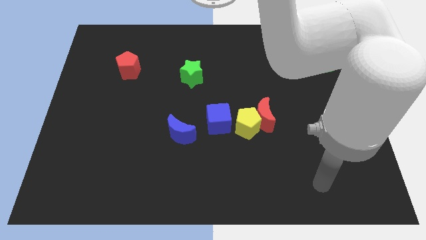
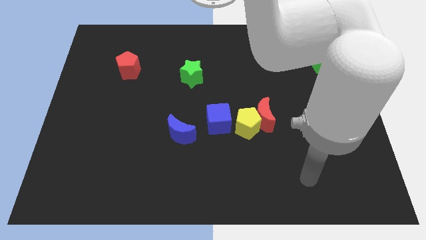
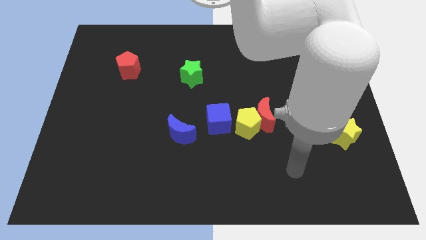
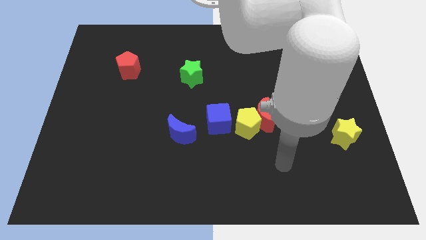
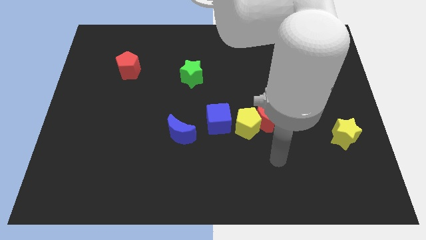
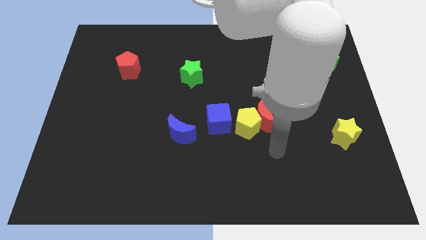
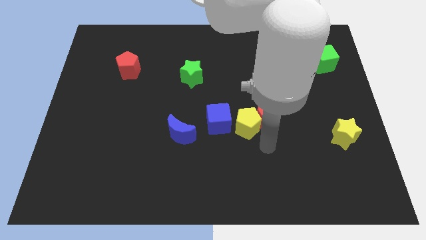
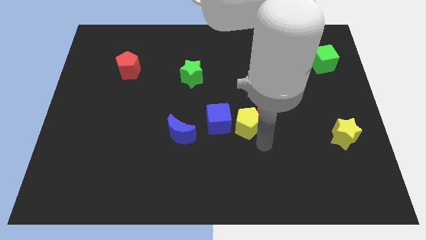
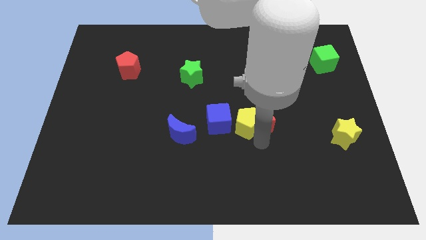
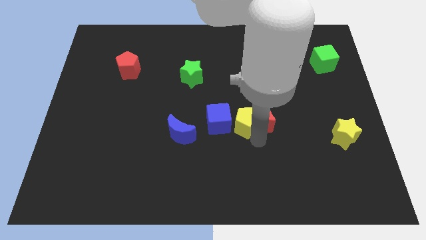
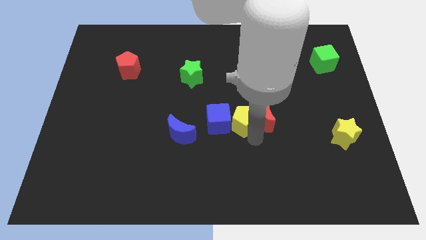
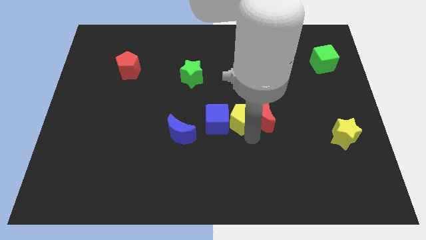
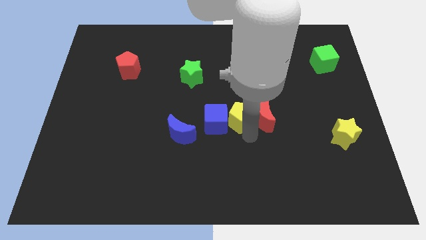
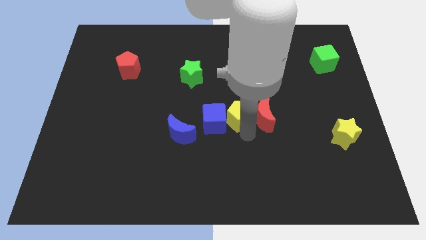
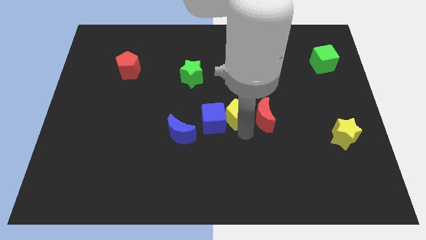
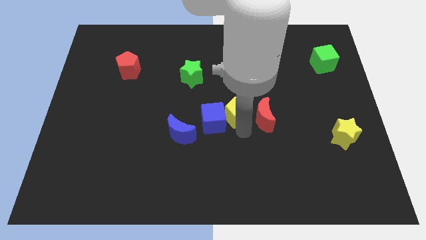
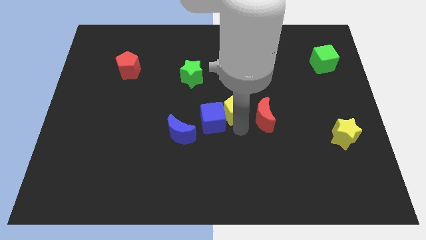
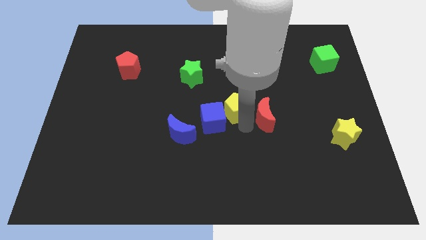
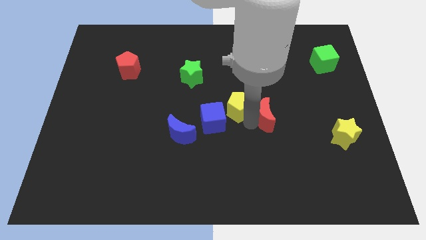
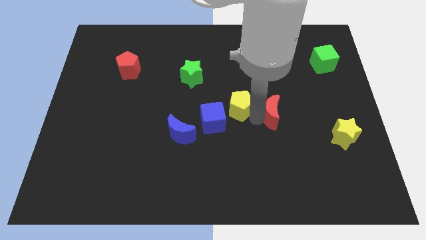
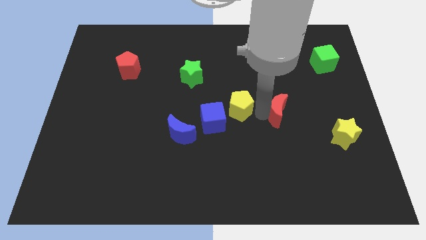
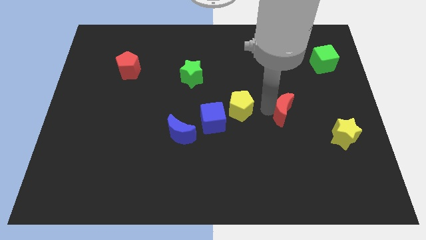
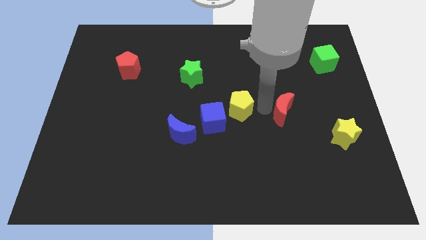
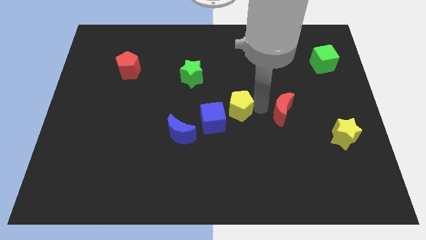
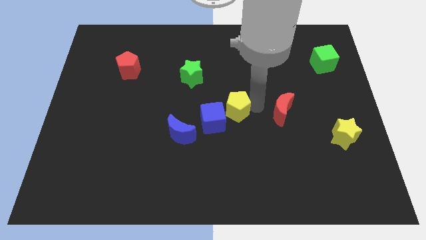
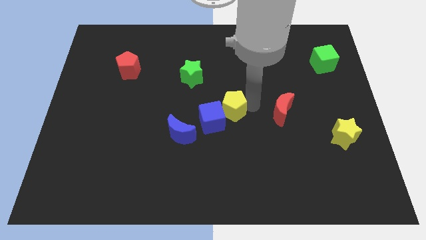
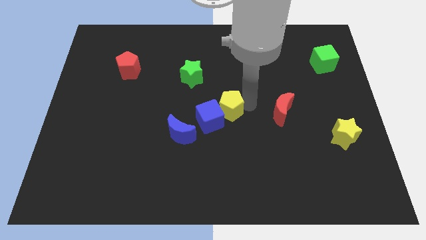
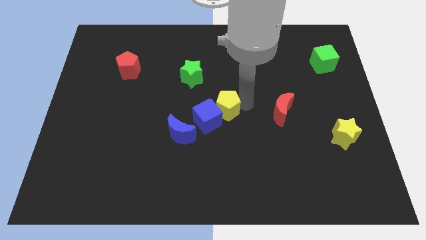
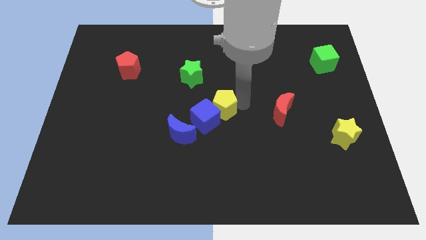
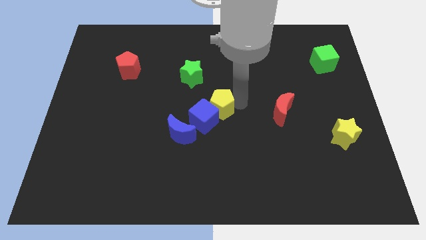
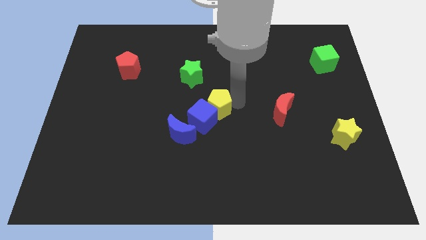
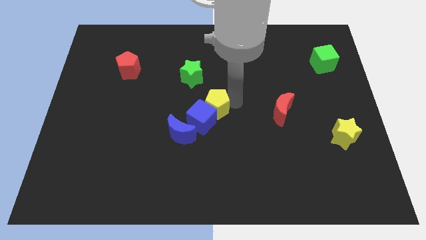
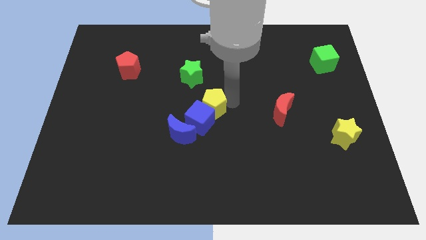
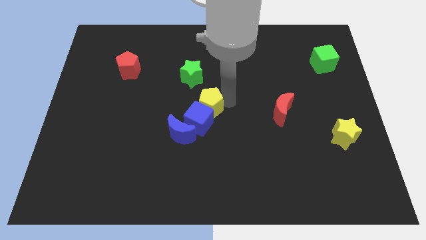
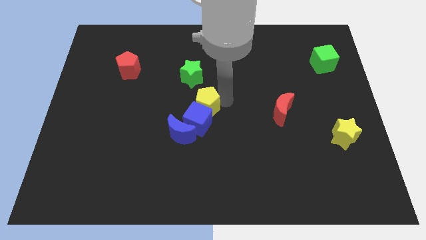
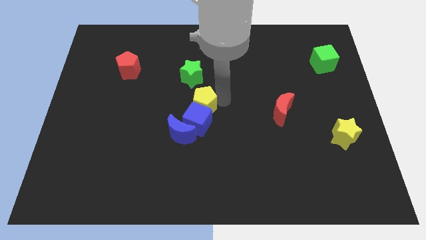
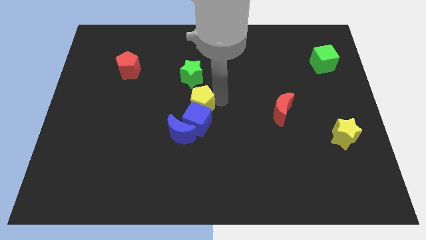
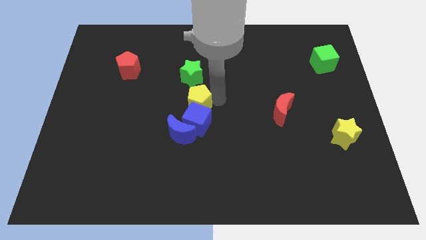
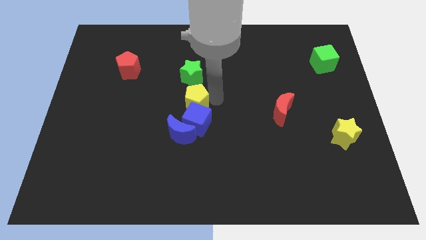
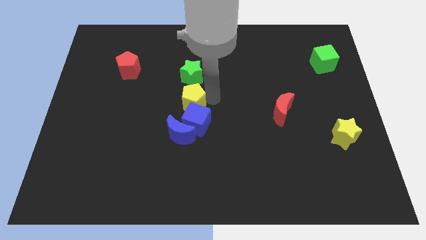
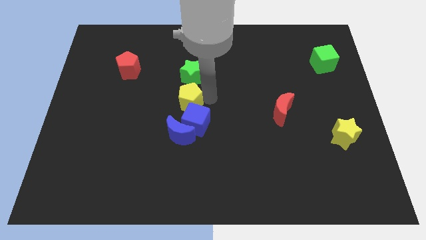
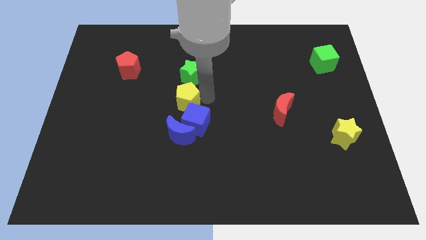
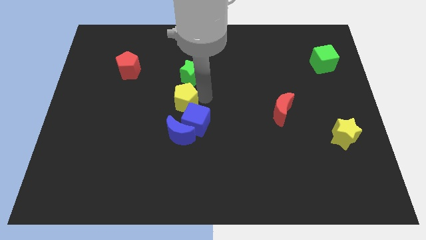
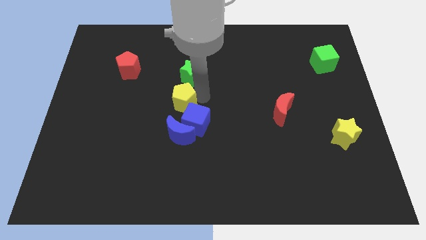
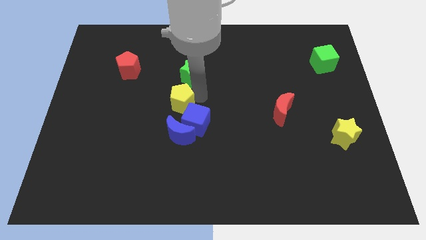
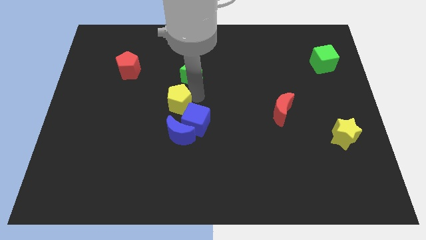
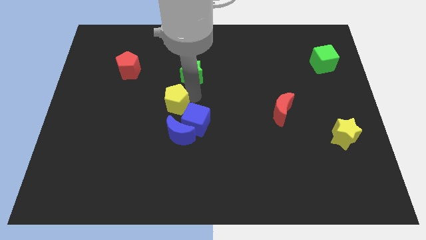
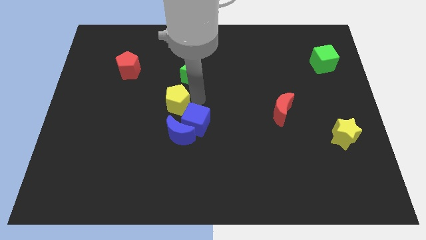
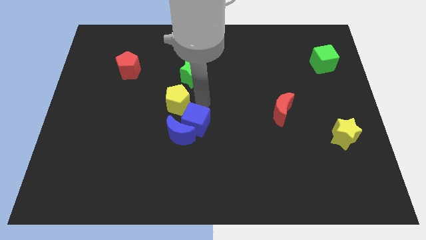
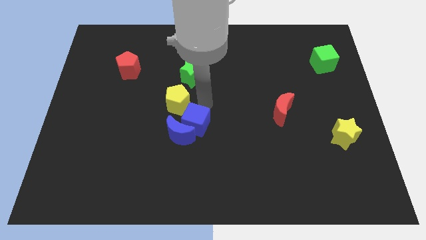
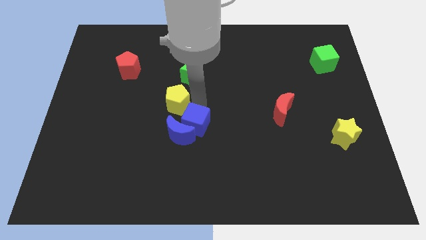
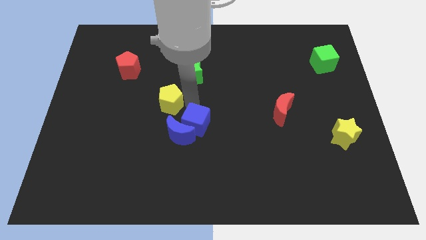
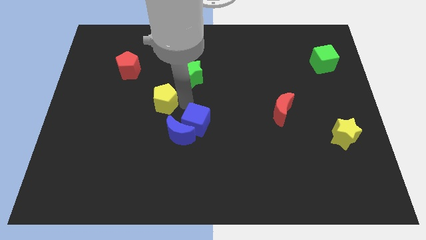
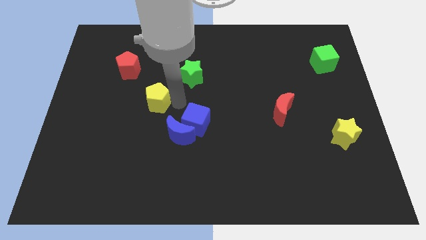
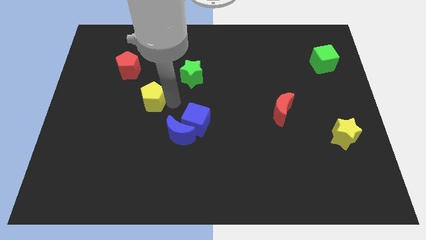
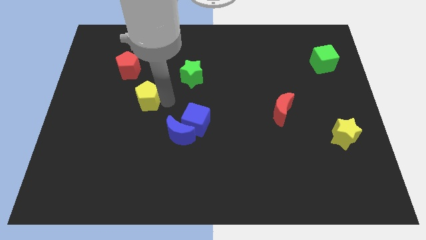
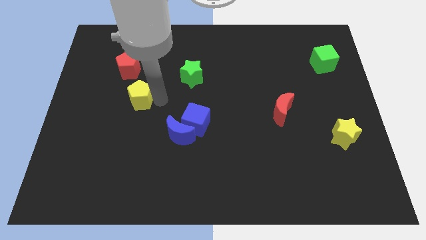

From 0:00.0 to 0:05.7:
put the yellow pentagon to the bottom side of the red pentagon

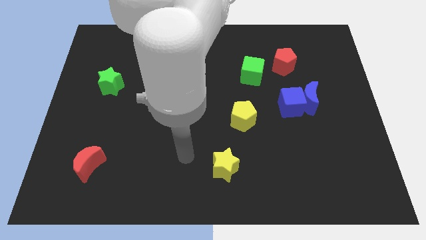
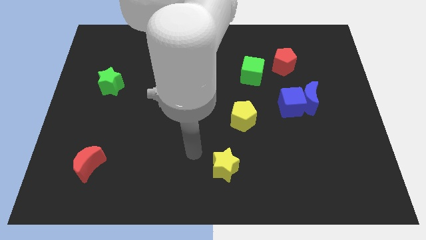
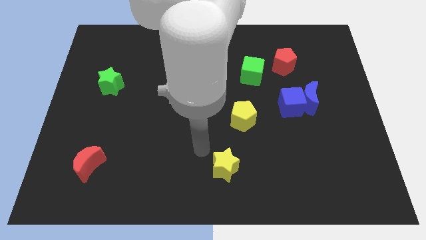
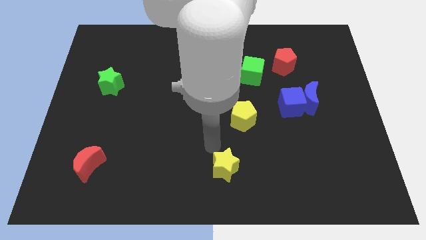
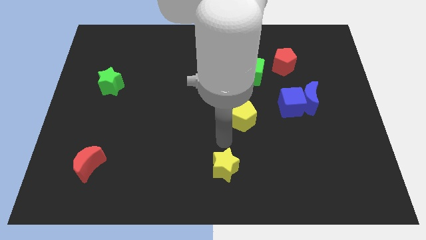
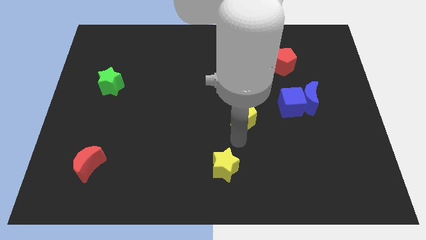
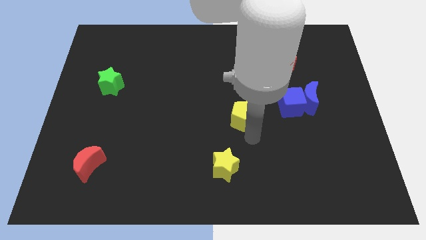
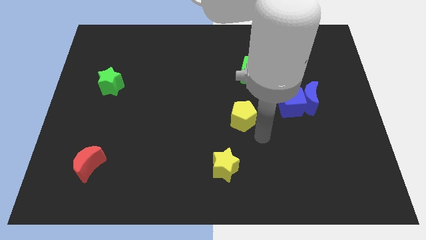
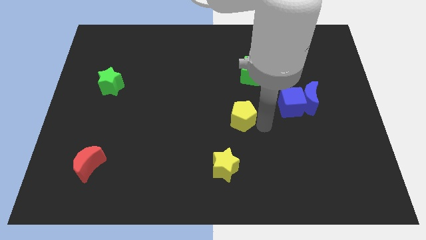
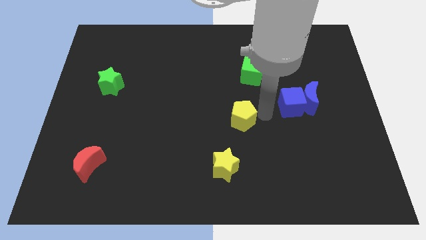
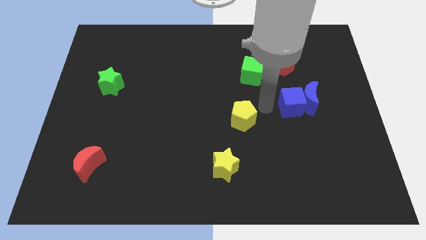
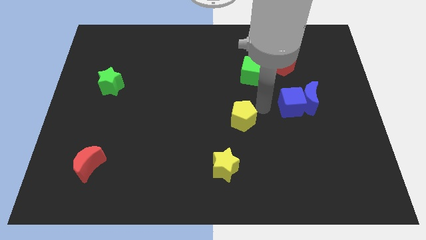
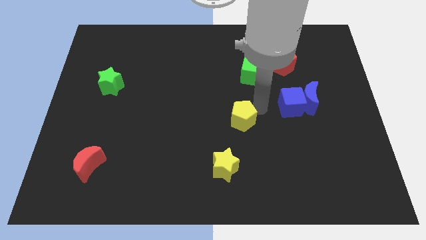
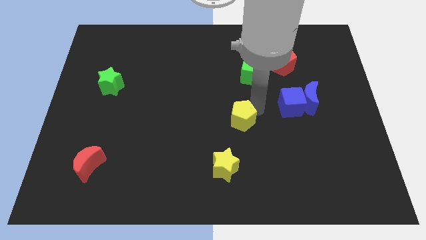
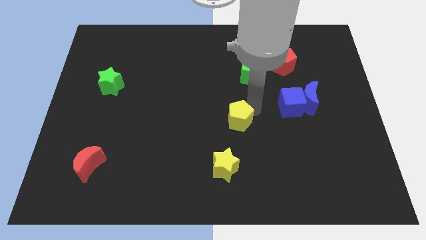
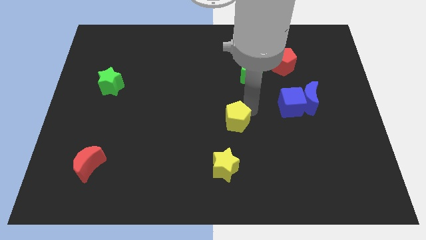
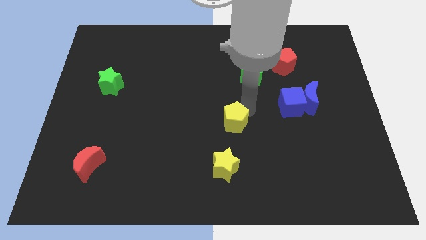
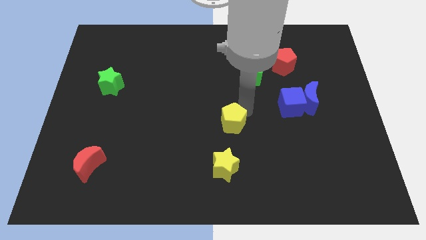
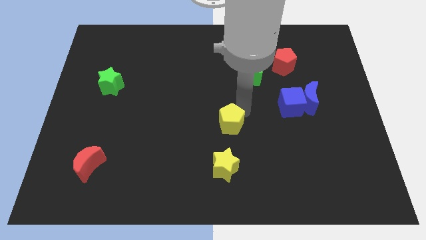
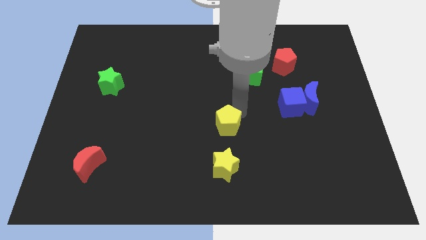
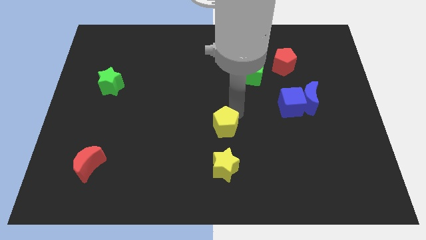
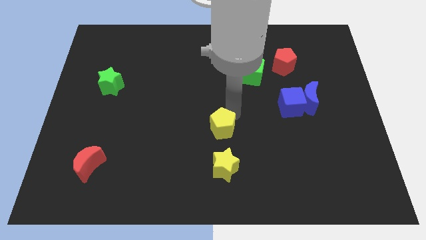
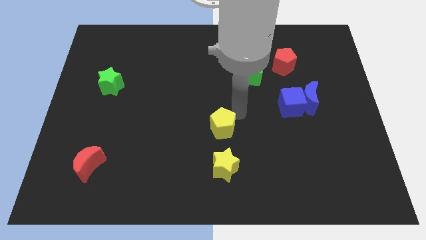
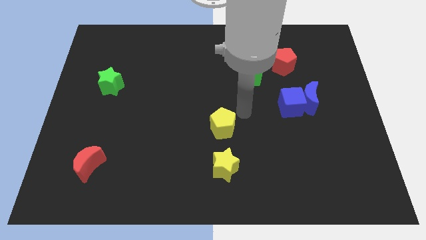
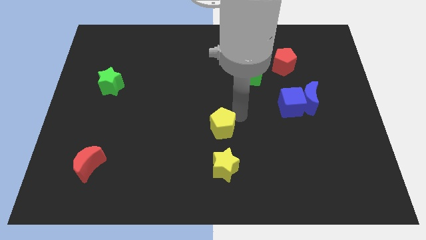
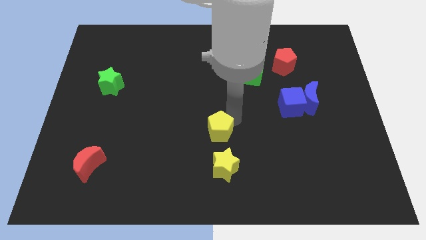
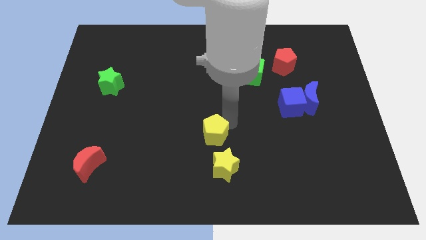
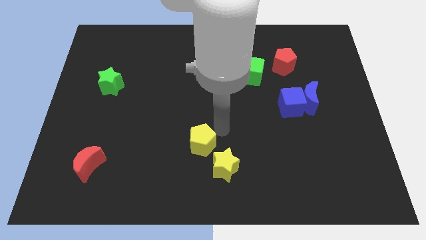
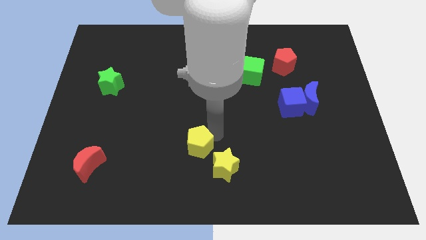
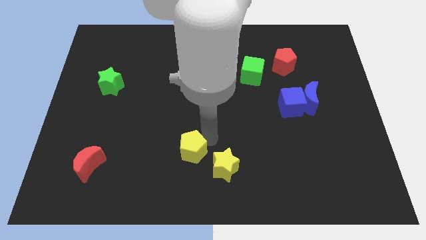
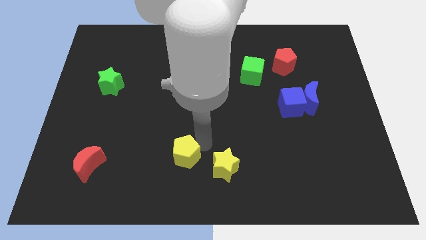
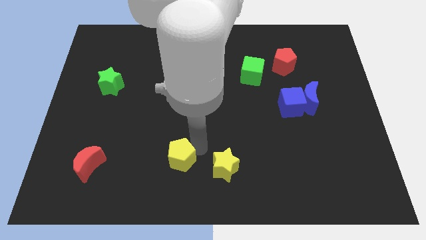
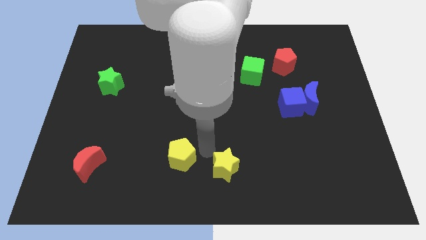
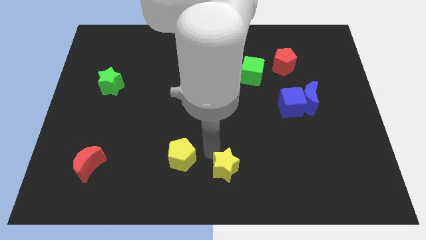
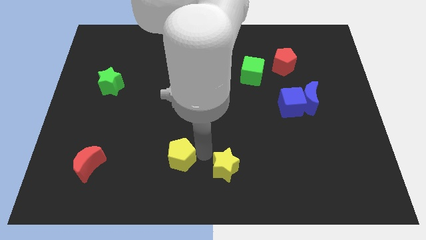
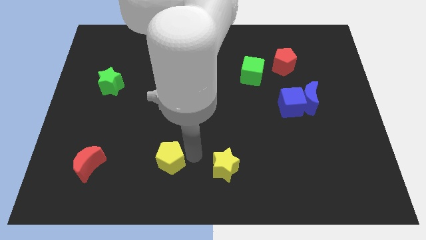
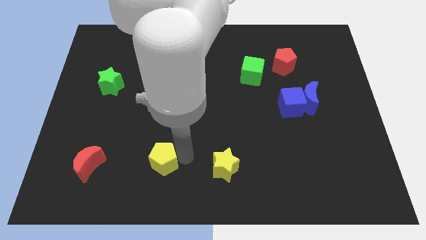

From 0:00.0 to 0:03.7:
put the yellow pentagon right of the red moon
